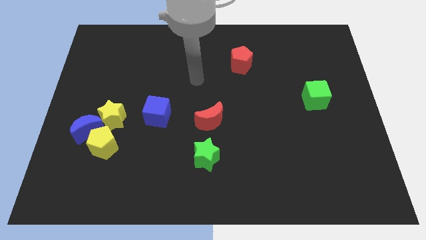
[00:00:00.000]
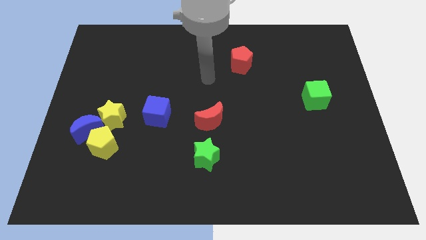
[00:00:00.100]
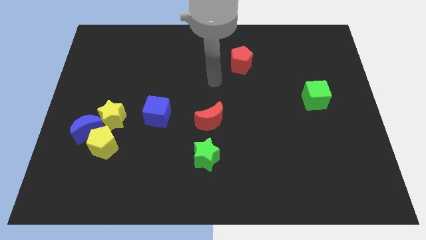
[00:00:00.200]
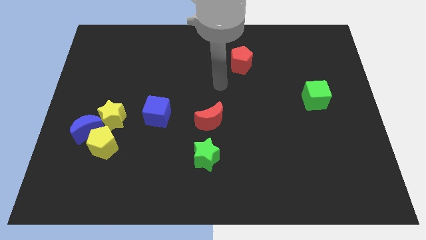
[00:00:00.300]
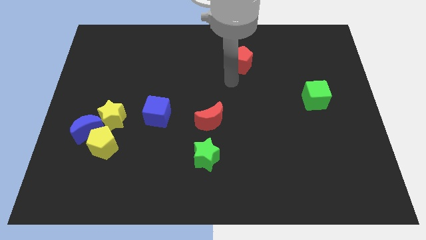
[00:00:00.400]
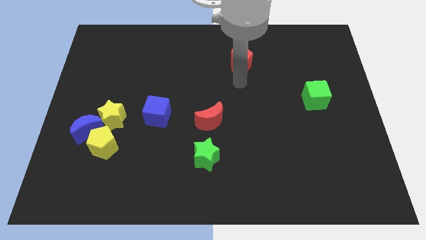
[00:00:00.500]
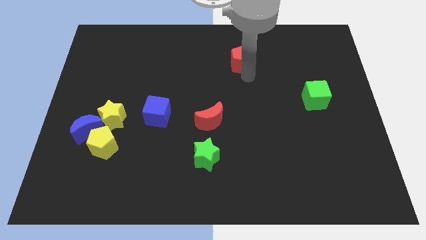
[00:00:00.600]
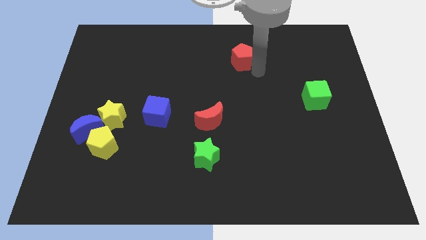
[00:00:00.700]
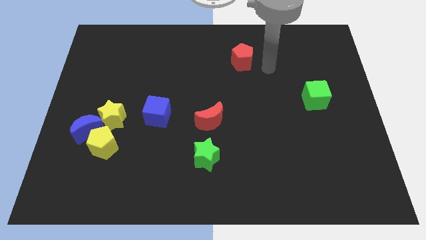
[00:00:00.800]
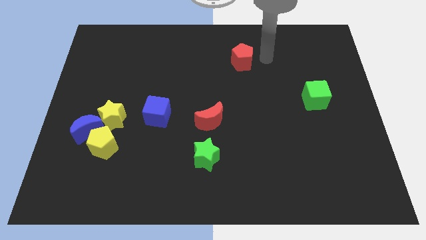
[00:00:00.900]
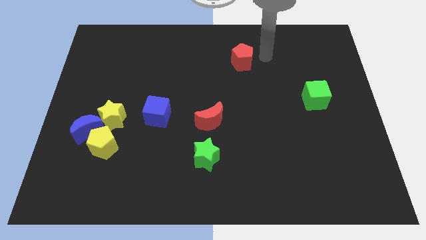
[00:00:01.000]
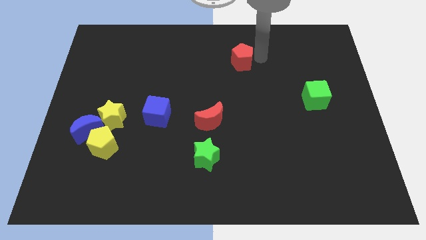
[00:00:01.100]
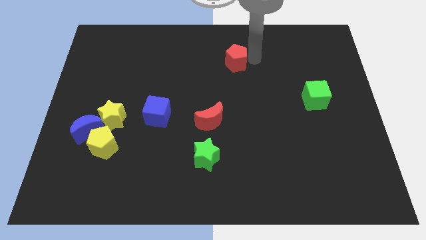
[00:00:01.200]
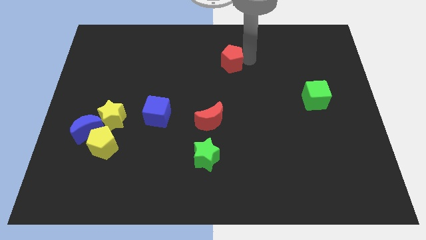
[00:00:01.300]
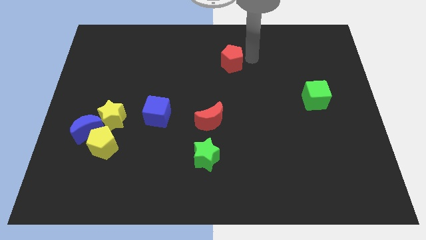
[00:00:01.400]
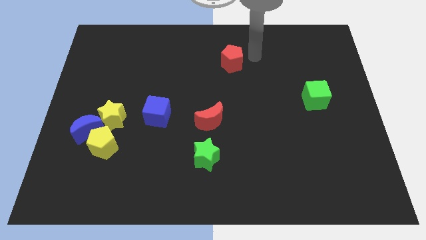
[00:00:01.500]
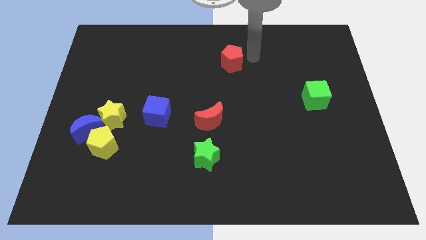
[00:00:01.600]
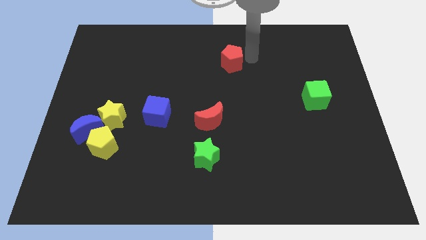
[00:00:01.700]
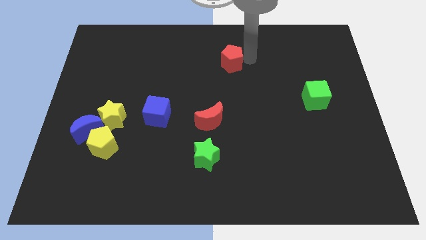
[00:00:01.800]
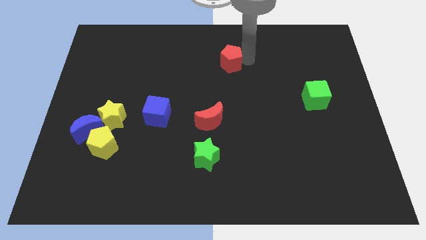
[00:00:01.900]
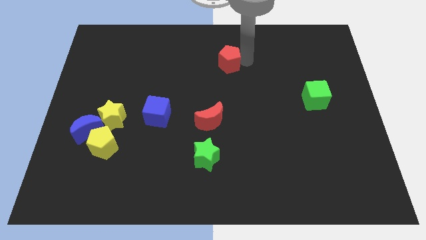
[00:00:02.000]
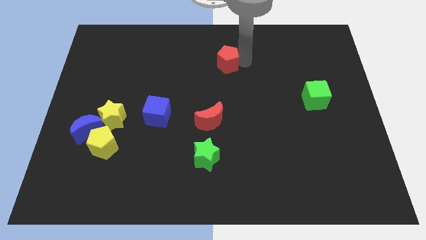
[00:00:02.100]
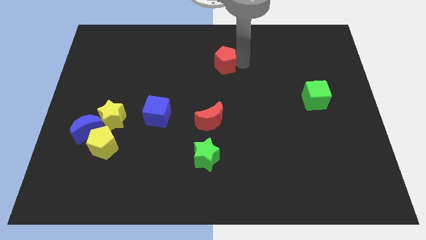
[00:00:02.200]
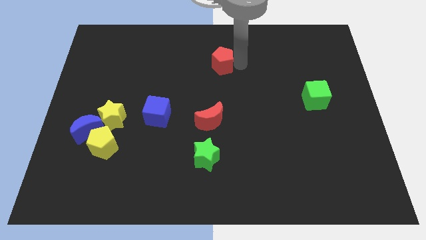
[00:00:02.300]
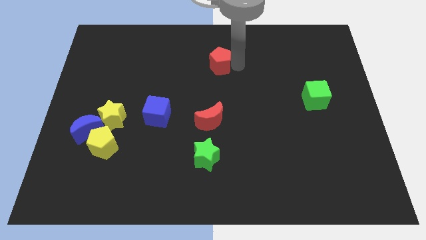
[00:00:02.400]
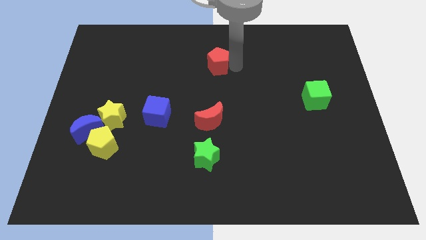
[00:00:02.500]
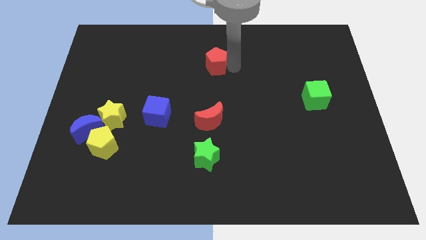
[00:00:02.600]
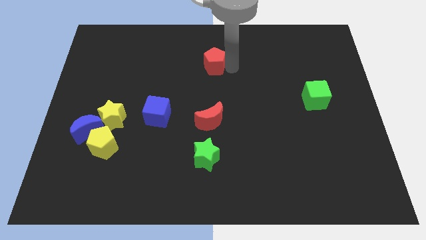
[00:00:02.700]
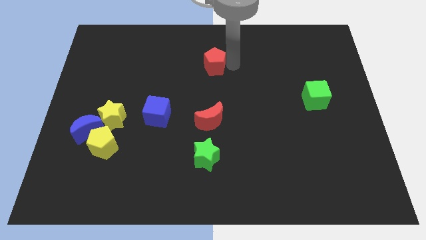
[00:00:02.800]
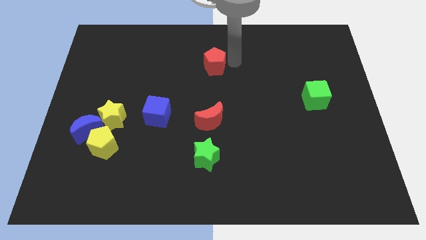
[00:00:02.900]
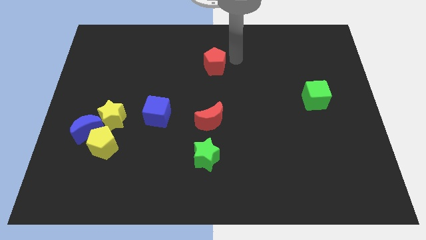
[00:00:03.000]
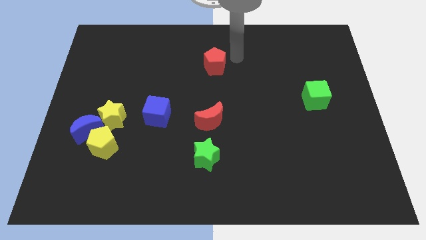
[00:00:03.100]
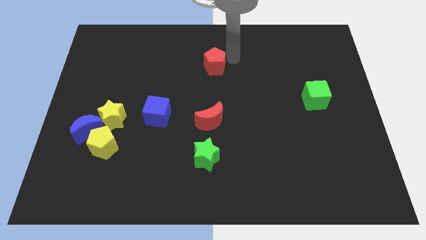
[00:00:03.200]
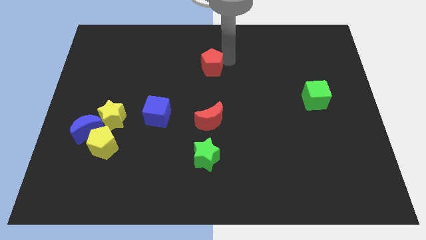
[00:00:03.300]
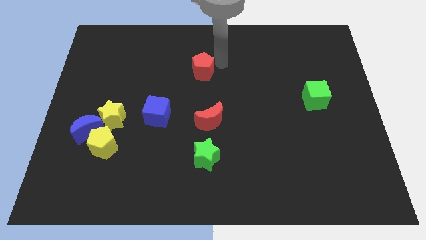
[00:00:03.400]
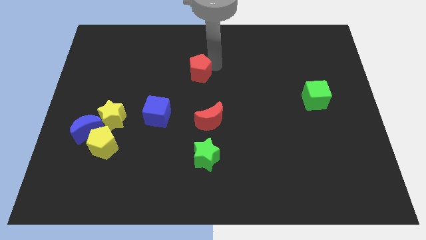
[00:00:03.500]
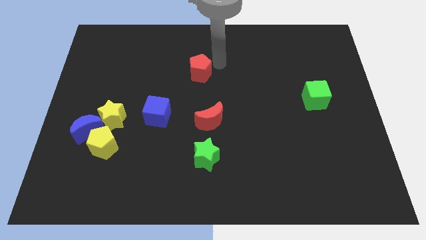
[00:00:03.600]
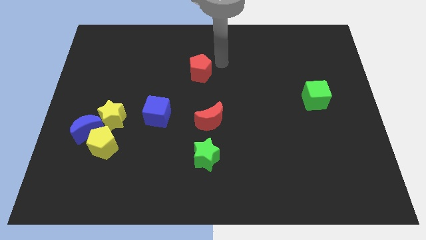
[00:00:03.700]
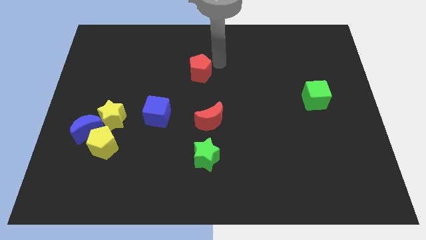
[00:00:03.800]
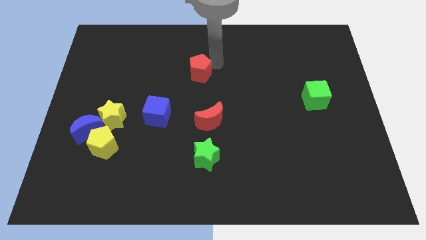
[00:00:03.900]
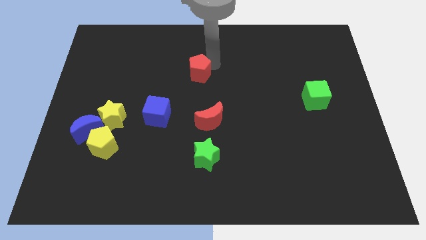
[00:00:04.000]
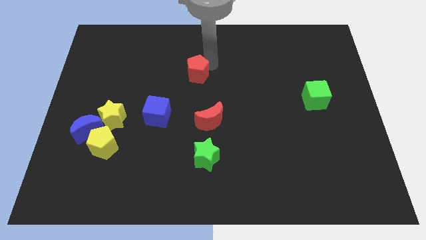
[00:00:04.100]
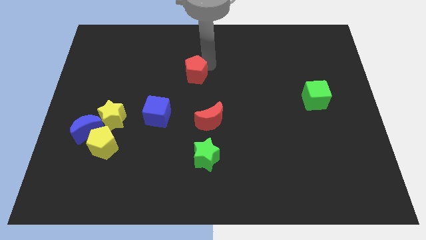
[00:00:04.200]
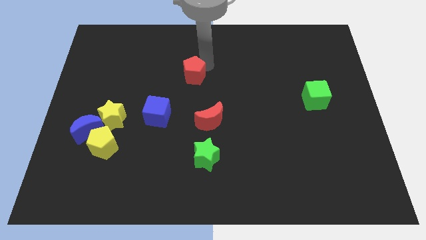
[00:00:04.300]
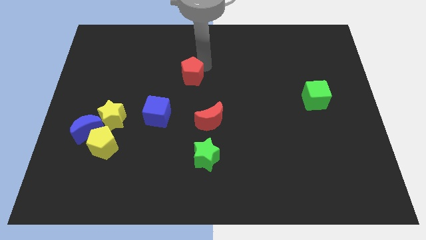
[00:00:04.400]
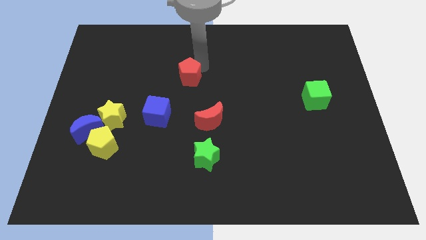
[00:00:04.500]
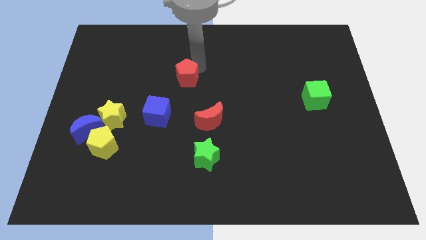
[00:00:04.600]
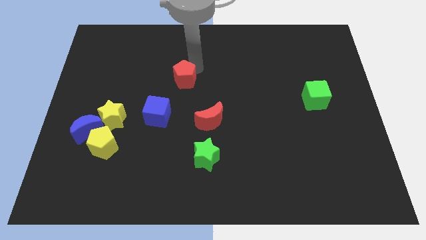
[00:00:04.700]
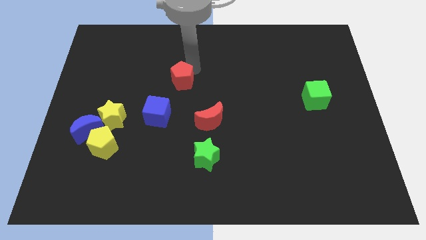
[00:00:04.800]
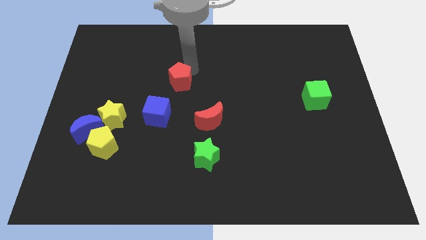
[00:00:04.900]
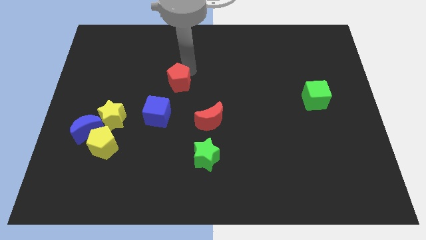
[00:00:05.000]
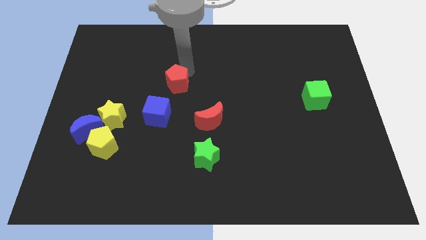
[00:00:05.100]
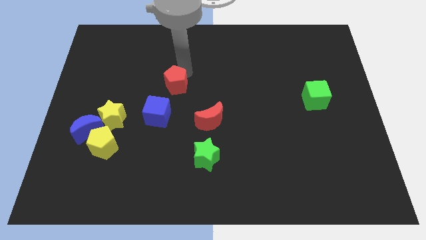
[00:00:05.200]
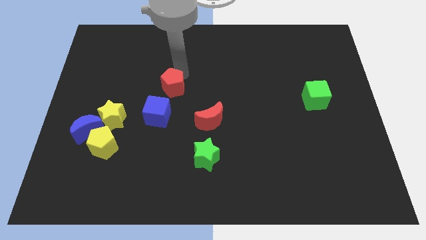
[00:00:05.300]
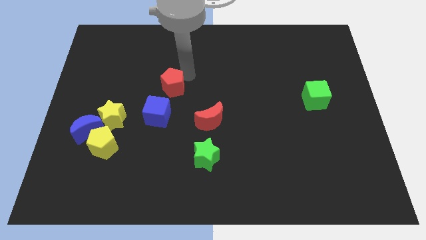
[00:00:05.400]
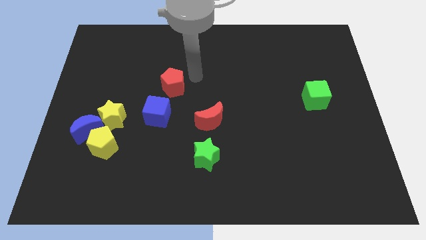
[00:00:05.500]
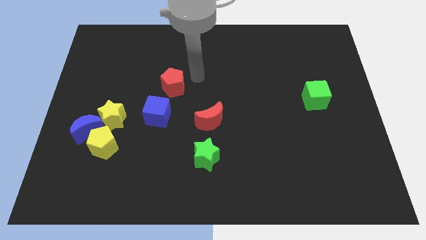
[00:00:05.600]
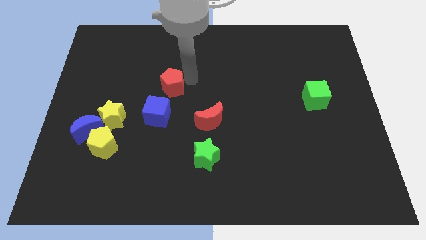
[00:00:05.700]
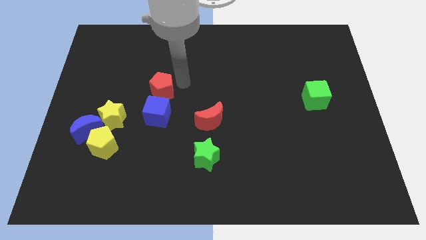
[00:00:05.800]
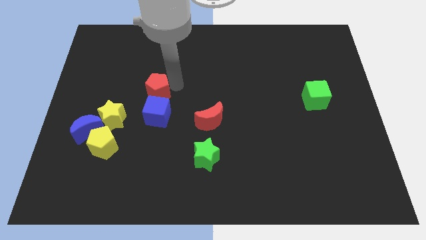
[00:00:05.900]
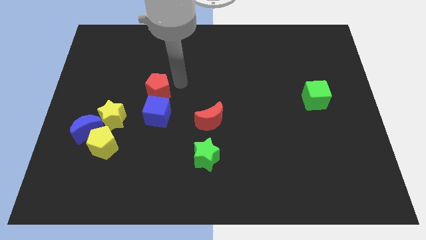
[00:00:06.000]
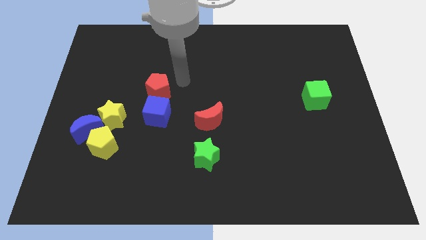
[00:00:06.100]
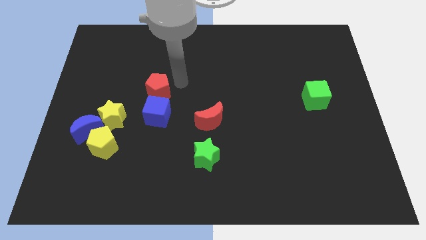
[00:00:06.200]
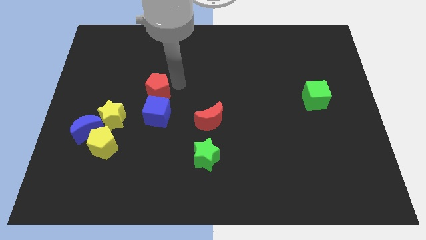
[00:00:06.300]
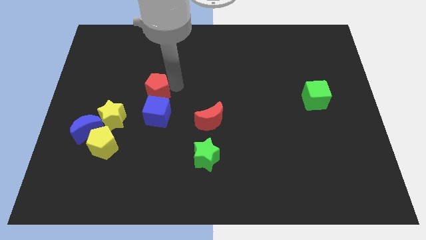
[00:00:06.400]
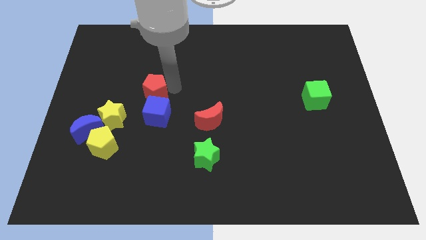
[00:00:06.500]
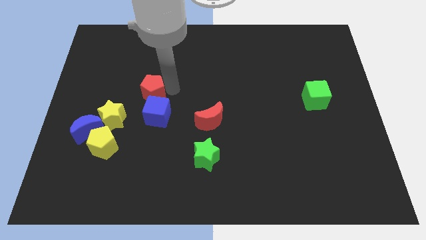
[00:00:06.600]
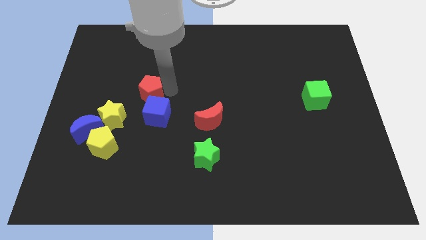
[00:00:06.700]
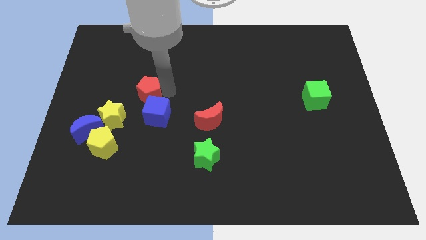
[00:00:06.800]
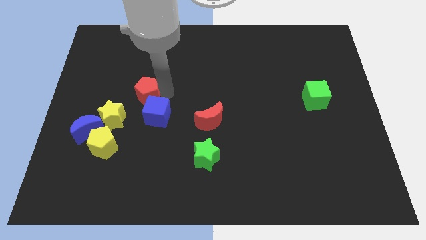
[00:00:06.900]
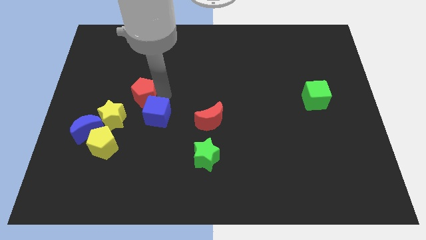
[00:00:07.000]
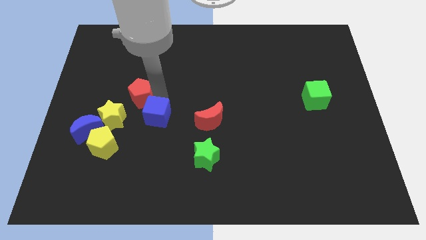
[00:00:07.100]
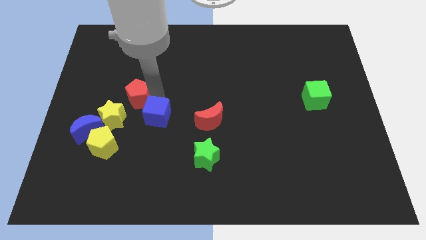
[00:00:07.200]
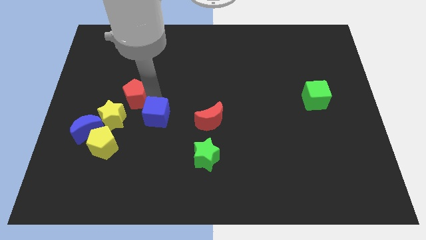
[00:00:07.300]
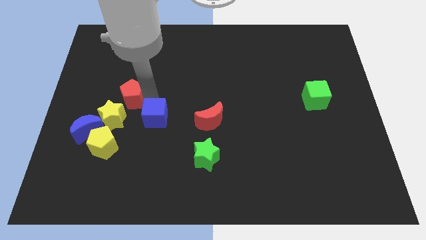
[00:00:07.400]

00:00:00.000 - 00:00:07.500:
move the red pentagon to the top of the yellow pentagon
